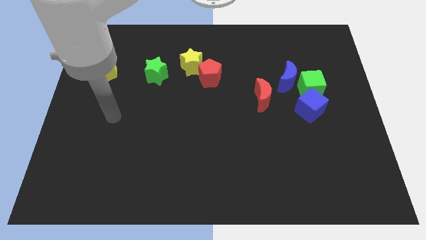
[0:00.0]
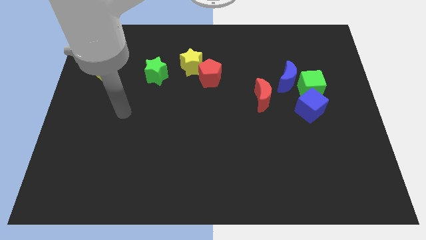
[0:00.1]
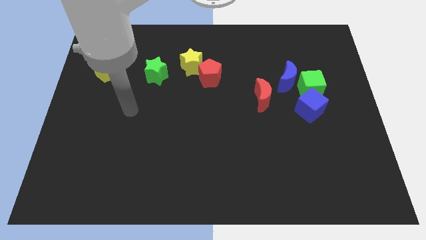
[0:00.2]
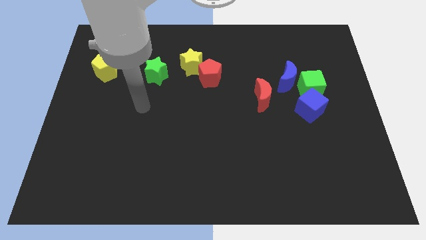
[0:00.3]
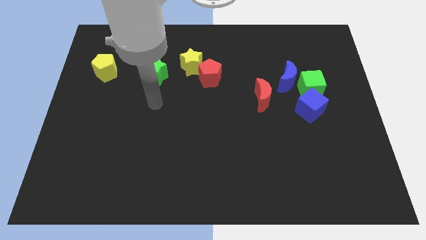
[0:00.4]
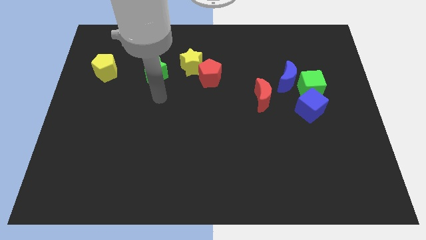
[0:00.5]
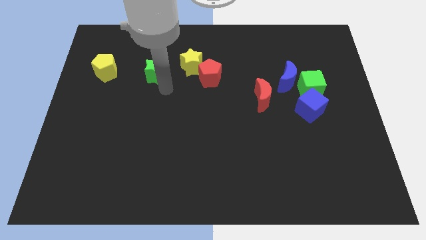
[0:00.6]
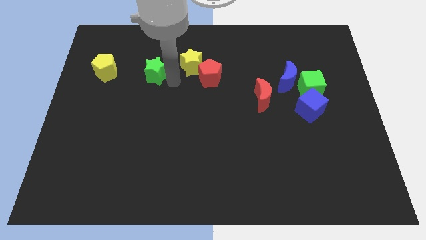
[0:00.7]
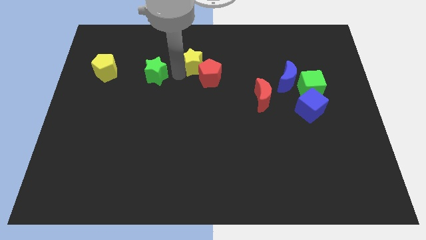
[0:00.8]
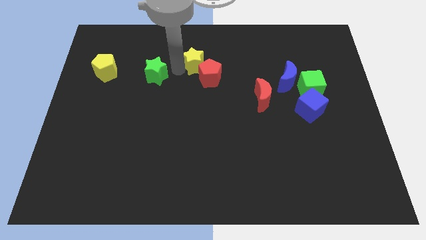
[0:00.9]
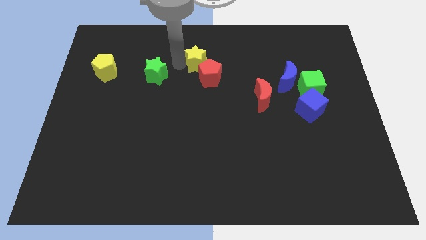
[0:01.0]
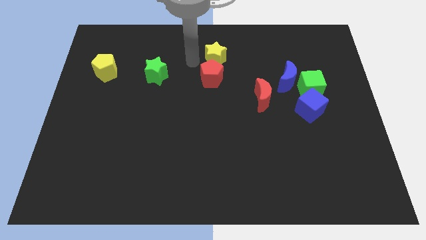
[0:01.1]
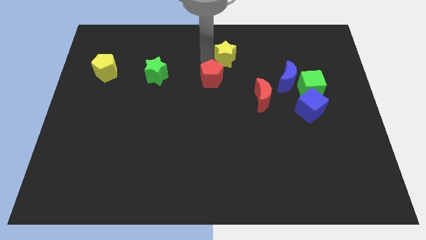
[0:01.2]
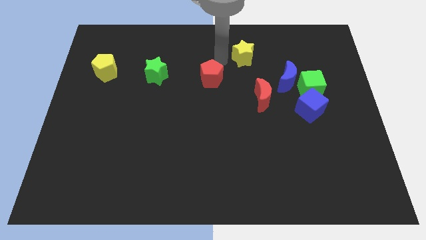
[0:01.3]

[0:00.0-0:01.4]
move the red pentagon away from the yellow star

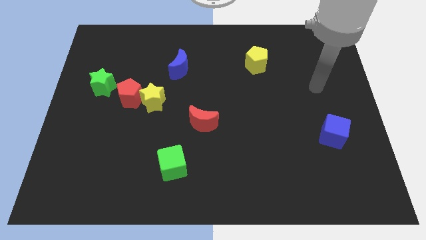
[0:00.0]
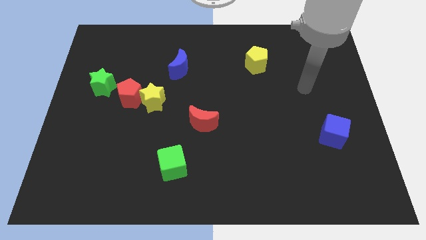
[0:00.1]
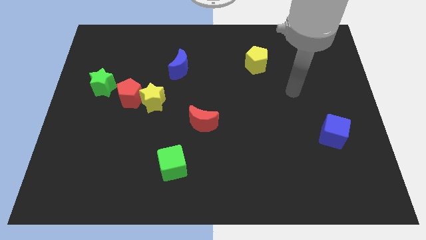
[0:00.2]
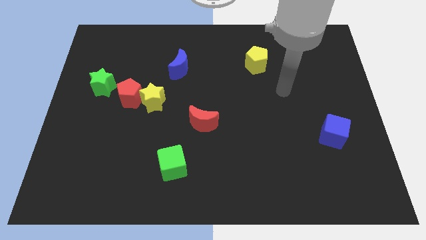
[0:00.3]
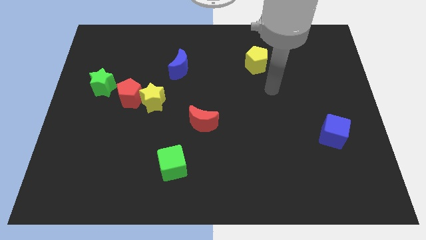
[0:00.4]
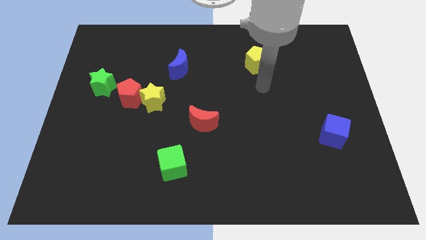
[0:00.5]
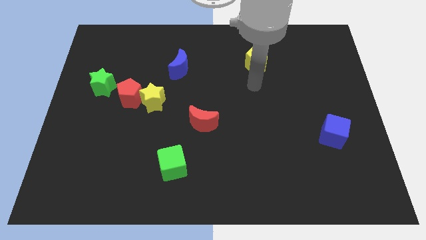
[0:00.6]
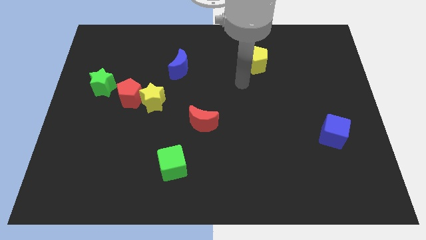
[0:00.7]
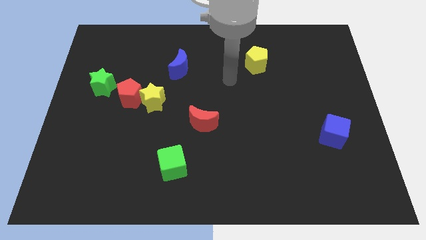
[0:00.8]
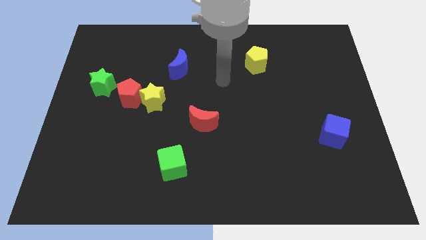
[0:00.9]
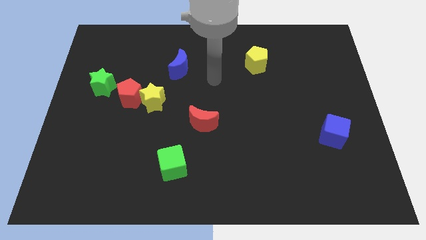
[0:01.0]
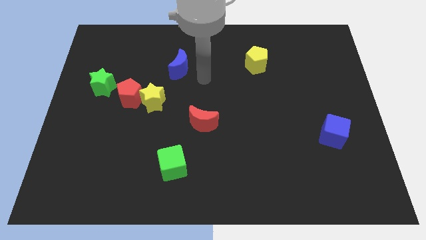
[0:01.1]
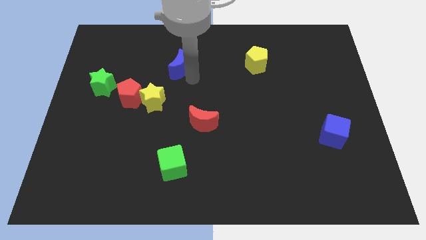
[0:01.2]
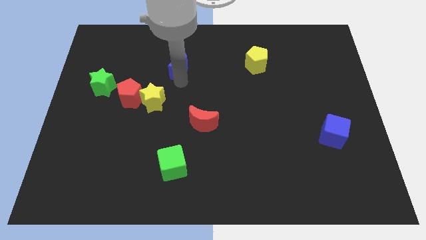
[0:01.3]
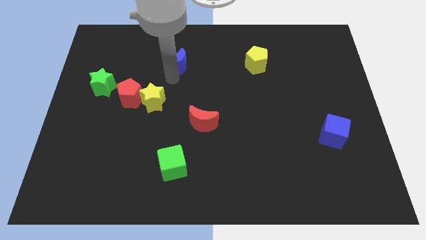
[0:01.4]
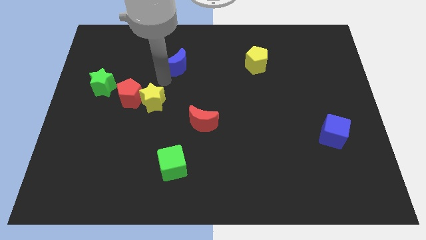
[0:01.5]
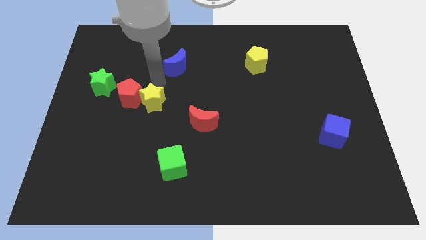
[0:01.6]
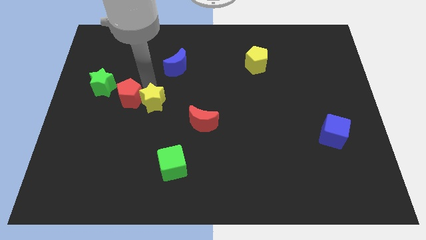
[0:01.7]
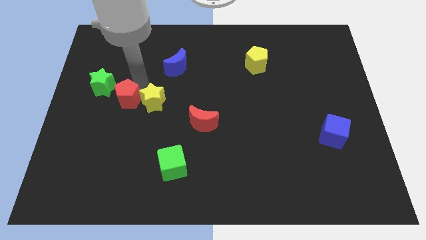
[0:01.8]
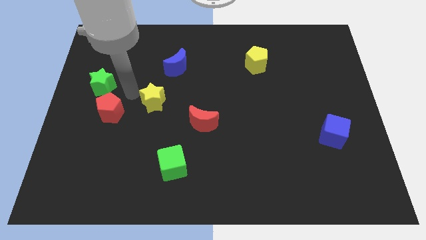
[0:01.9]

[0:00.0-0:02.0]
move the yellow star away from the red pentagon

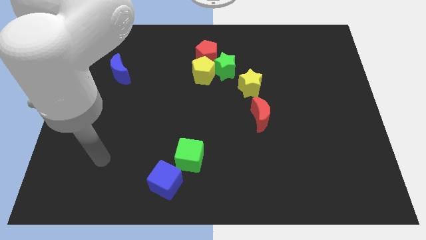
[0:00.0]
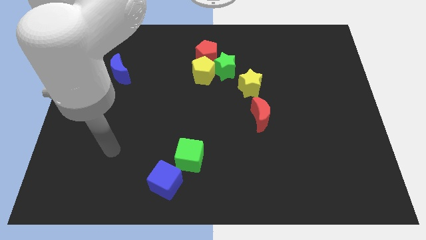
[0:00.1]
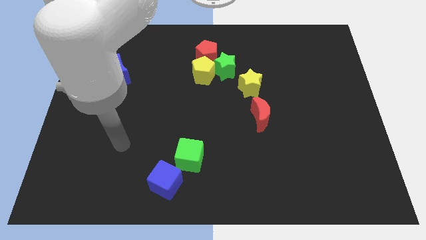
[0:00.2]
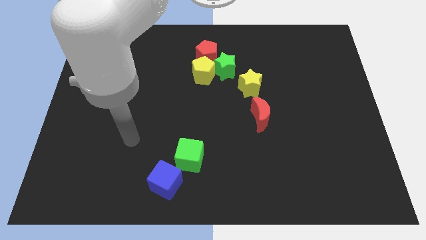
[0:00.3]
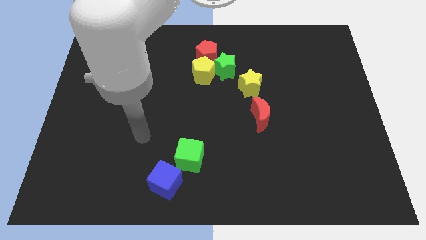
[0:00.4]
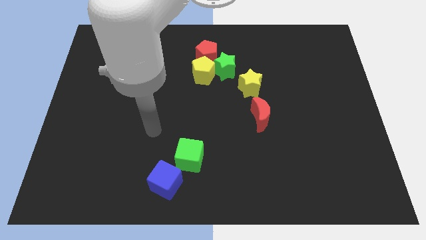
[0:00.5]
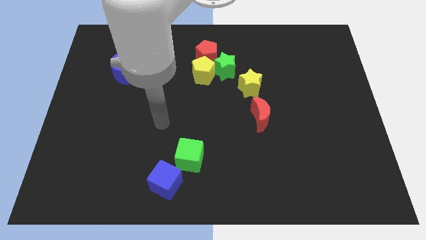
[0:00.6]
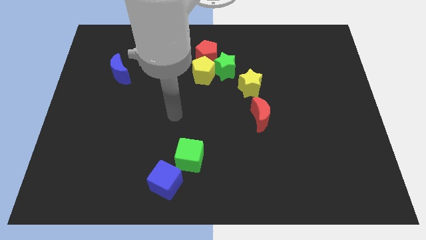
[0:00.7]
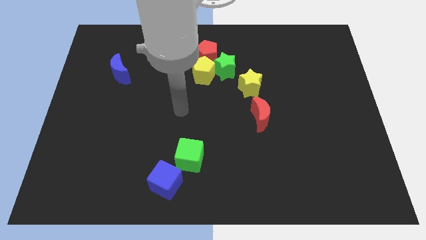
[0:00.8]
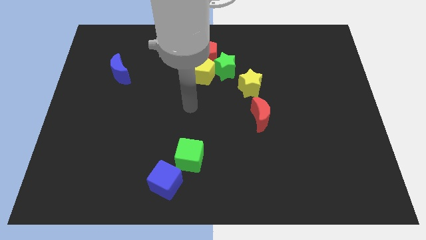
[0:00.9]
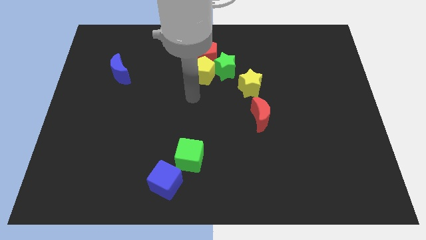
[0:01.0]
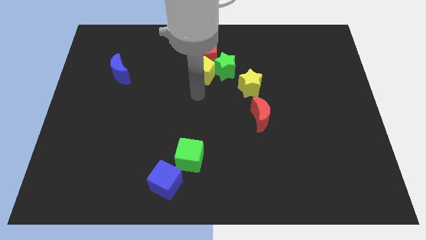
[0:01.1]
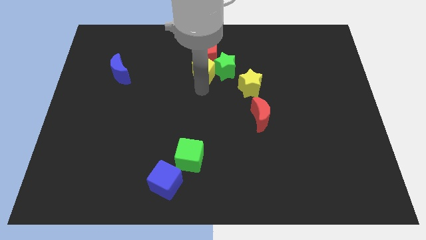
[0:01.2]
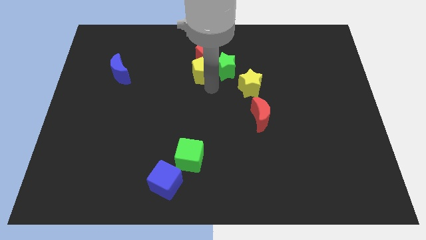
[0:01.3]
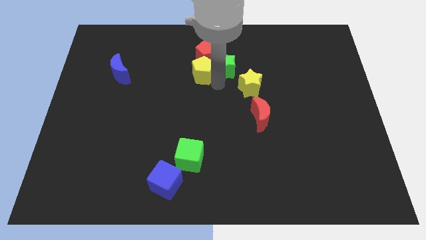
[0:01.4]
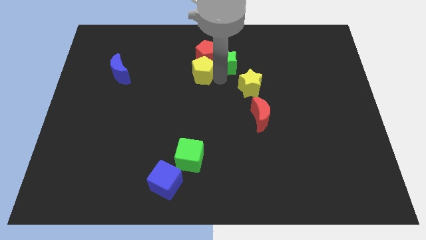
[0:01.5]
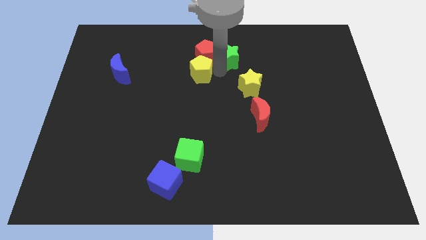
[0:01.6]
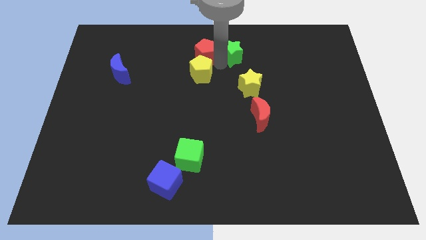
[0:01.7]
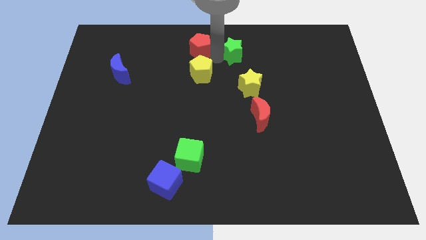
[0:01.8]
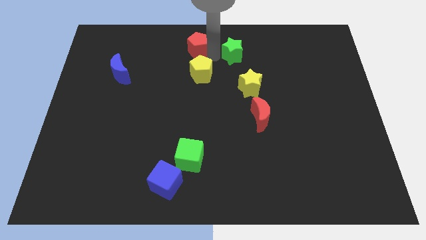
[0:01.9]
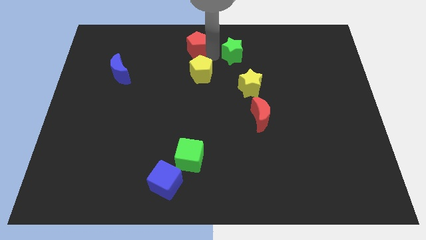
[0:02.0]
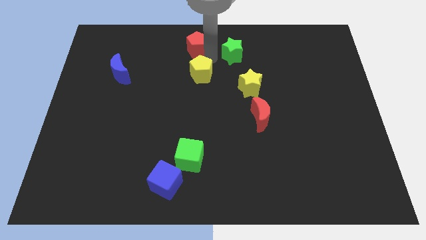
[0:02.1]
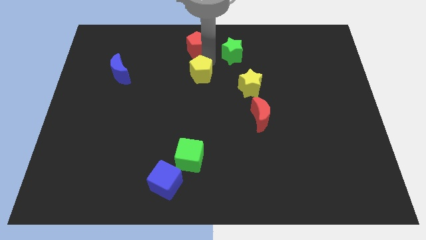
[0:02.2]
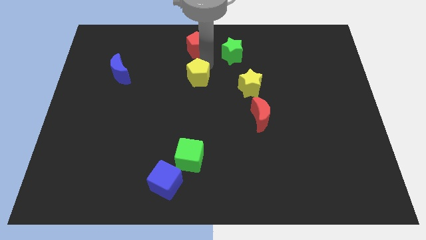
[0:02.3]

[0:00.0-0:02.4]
move the yellow pentagon away from the green star and red pentagon

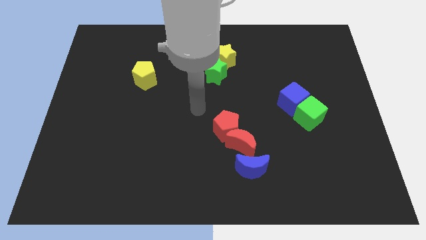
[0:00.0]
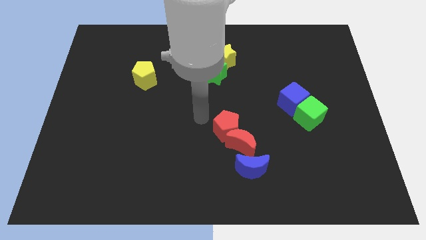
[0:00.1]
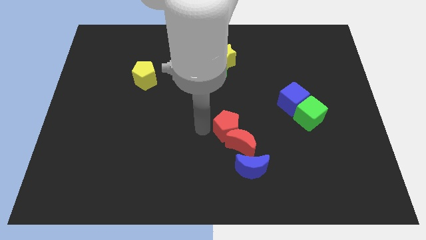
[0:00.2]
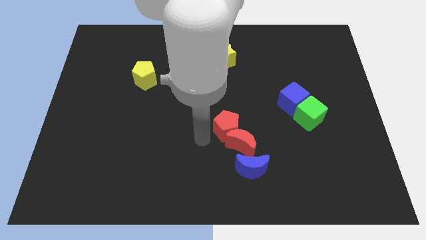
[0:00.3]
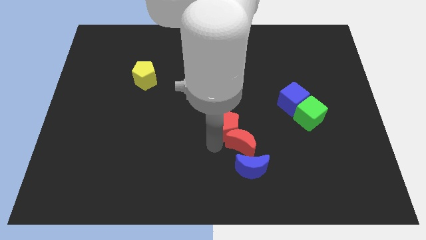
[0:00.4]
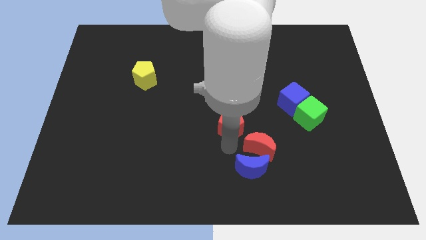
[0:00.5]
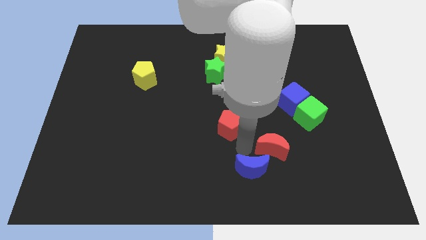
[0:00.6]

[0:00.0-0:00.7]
pull the red pentagon apart from the red moon

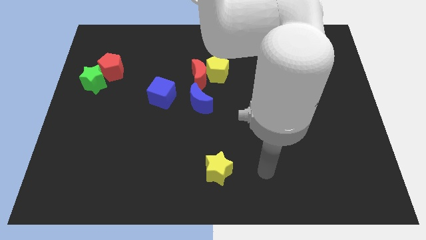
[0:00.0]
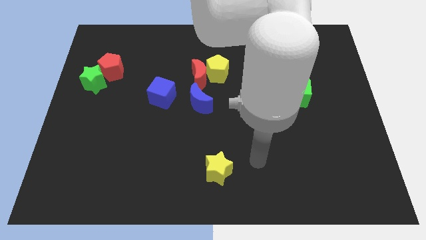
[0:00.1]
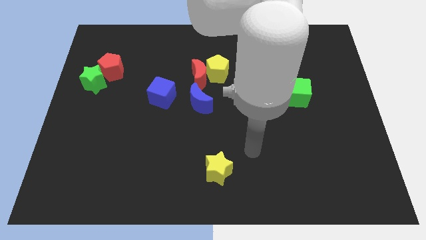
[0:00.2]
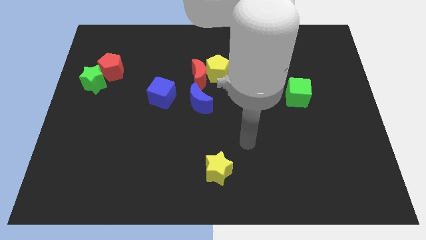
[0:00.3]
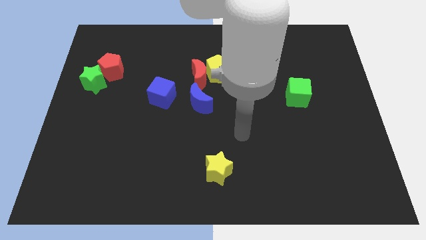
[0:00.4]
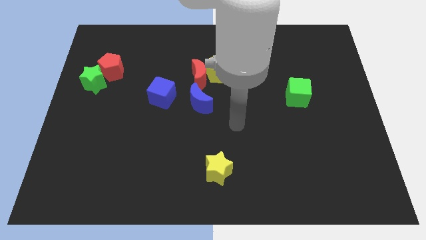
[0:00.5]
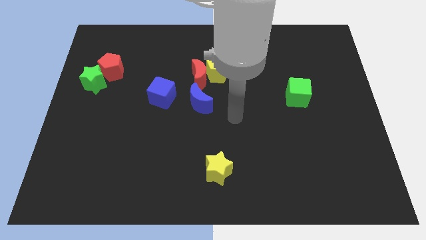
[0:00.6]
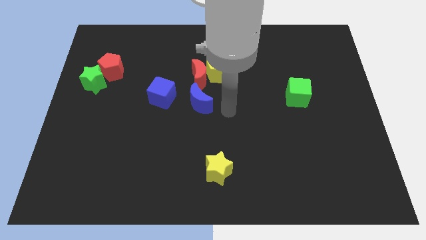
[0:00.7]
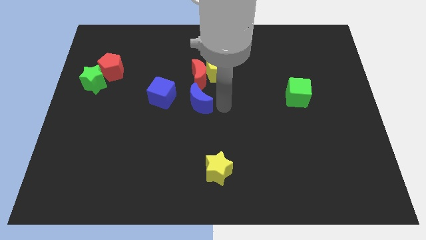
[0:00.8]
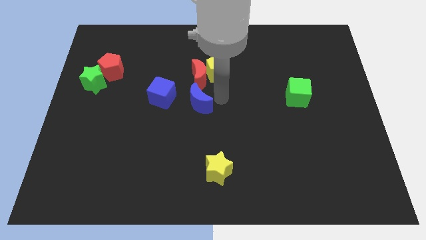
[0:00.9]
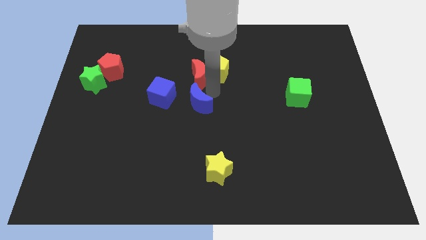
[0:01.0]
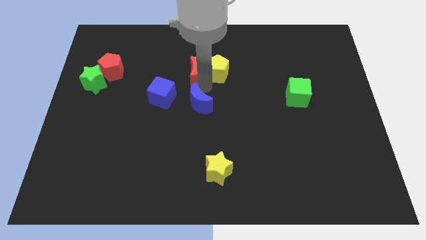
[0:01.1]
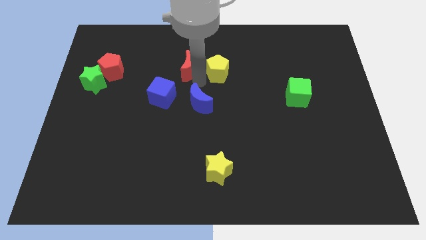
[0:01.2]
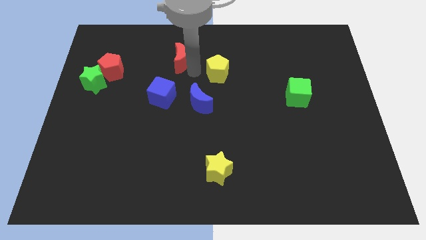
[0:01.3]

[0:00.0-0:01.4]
pull the yellow pentagon apart from the red moon

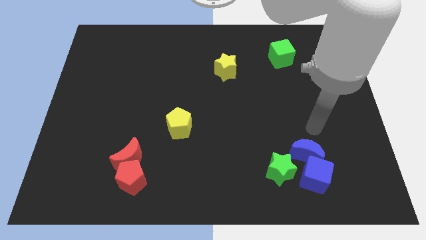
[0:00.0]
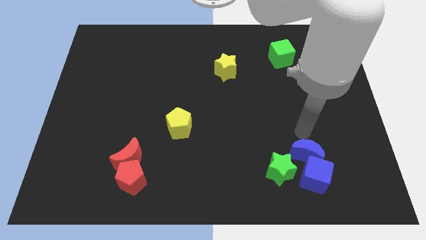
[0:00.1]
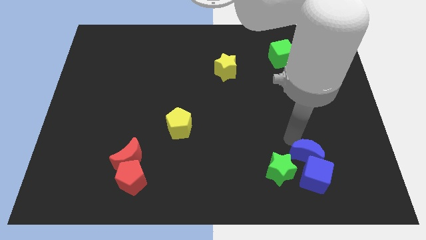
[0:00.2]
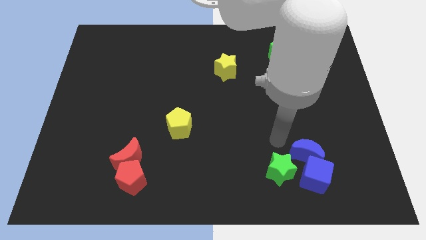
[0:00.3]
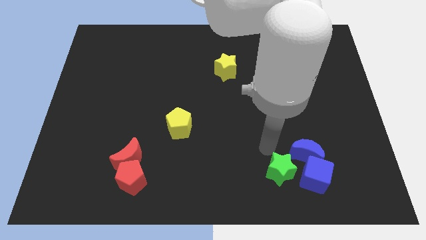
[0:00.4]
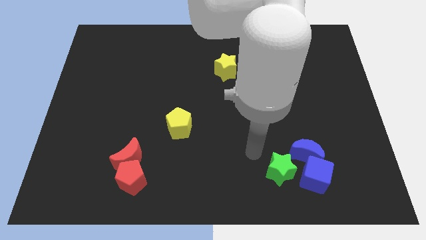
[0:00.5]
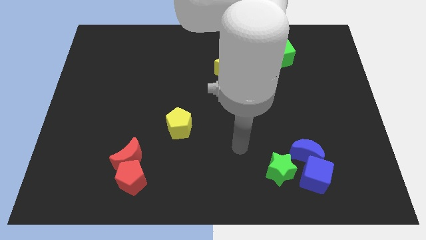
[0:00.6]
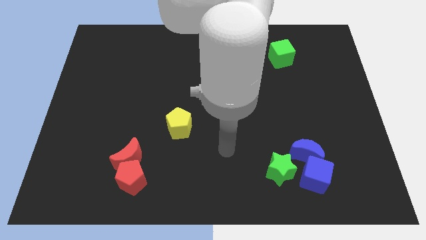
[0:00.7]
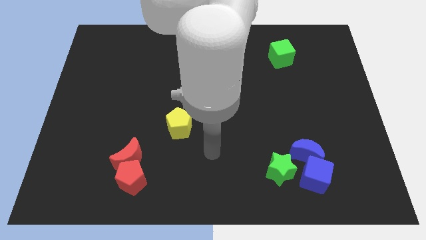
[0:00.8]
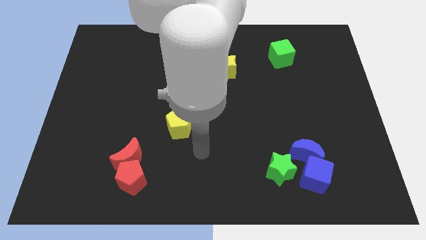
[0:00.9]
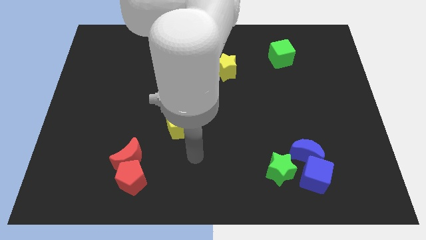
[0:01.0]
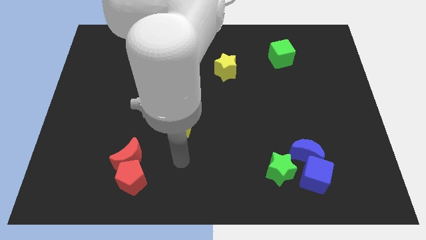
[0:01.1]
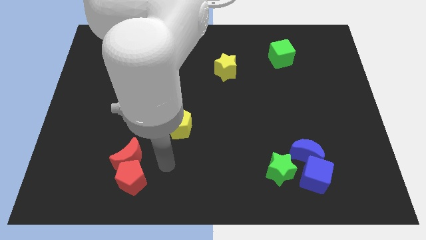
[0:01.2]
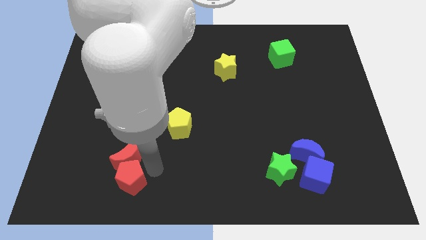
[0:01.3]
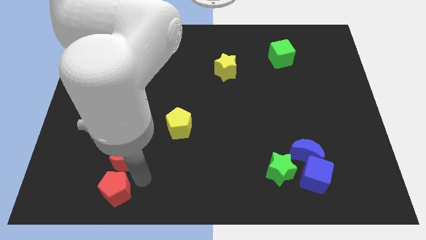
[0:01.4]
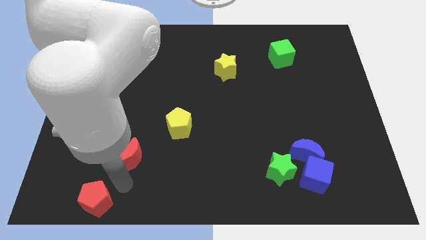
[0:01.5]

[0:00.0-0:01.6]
separate the red moon from the red pentagon
